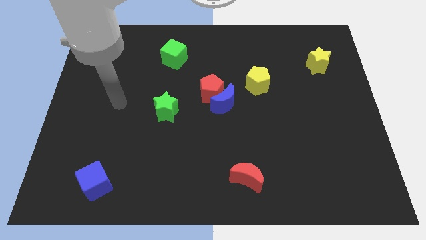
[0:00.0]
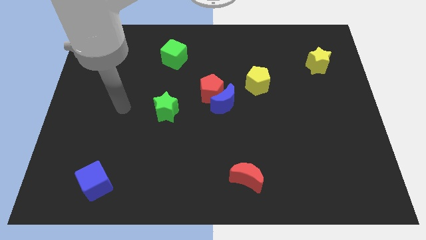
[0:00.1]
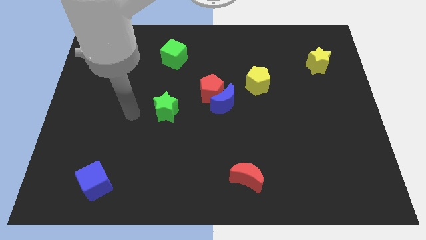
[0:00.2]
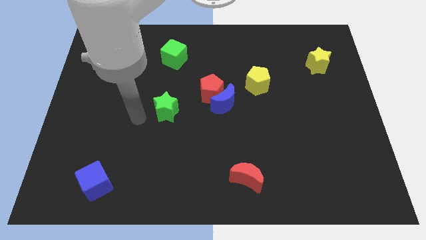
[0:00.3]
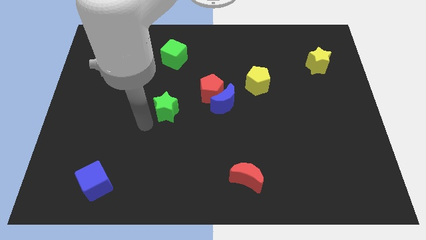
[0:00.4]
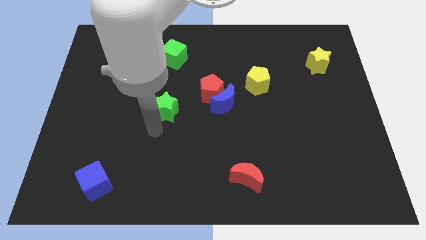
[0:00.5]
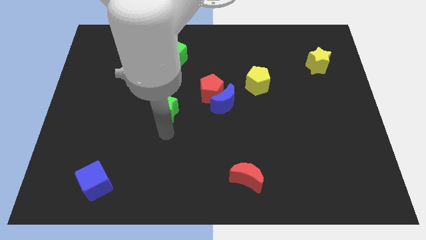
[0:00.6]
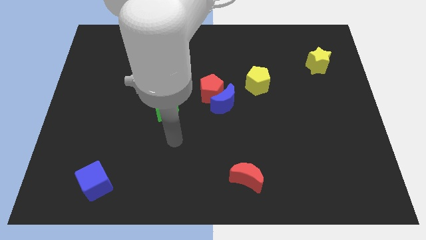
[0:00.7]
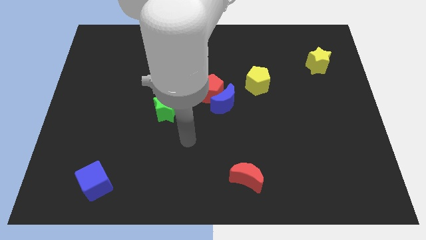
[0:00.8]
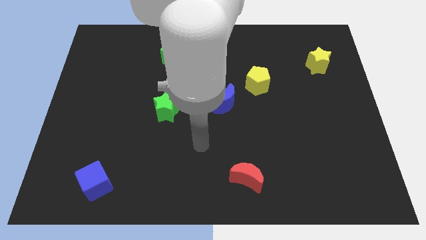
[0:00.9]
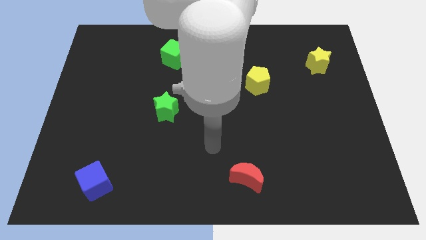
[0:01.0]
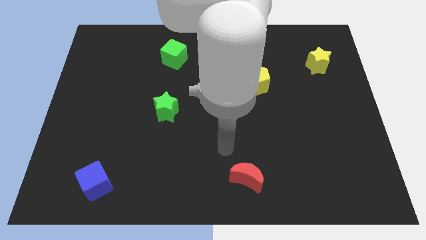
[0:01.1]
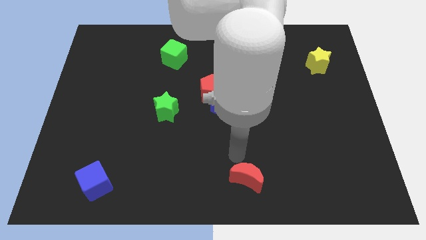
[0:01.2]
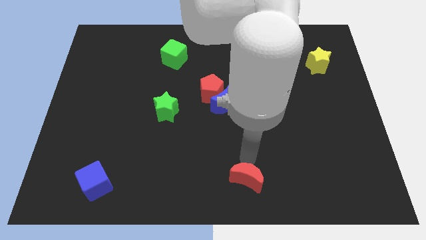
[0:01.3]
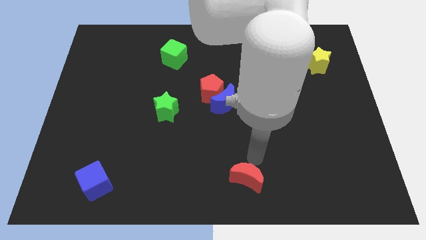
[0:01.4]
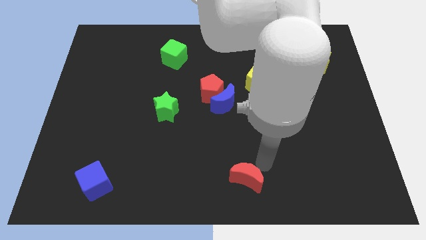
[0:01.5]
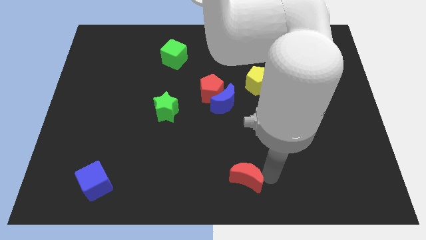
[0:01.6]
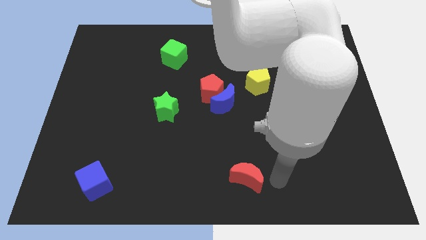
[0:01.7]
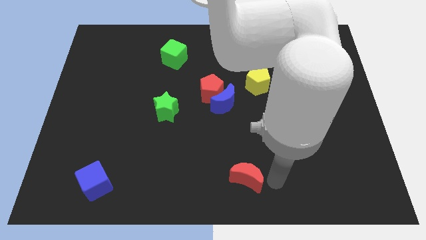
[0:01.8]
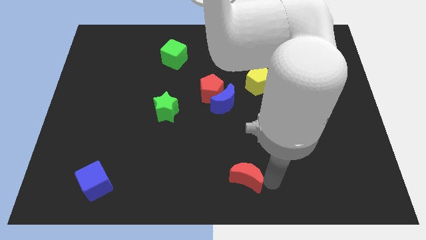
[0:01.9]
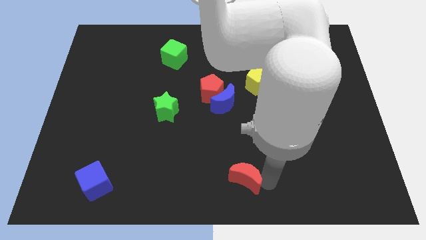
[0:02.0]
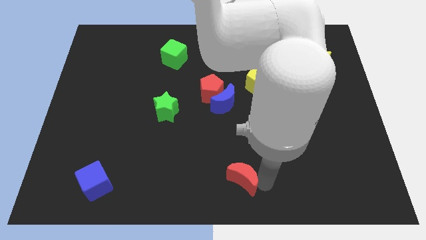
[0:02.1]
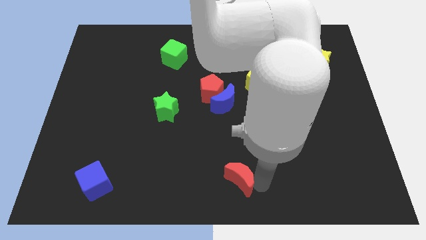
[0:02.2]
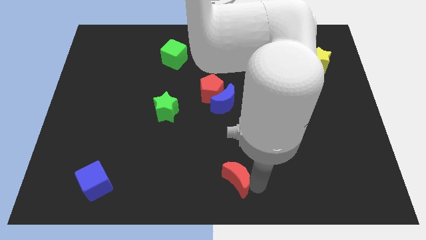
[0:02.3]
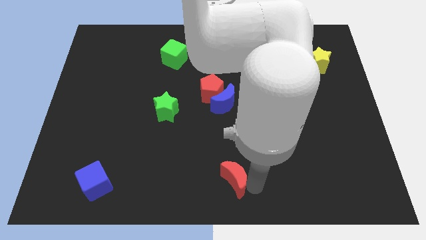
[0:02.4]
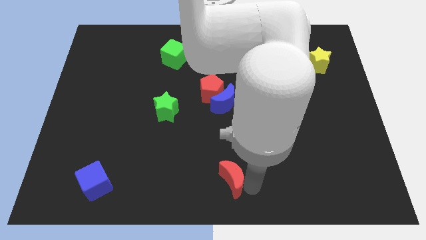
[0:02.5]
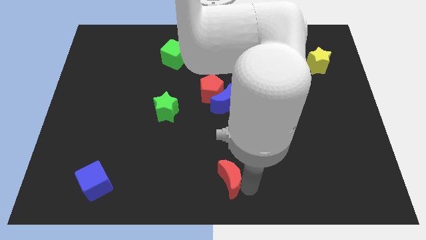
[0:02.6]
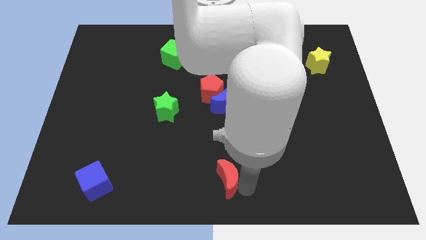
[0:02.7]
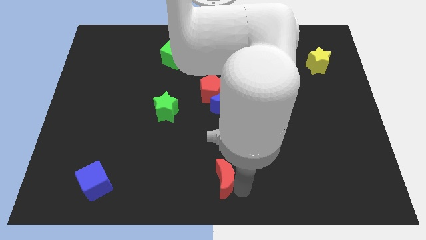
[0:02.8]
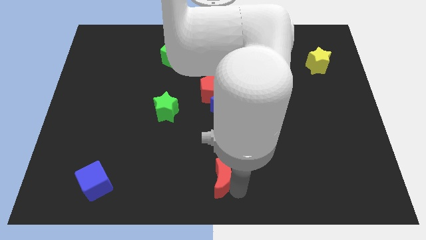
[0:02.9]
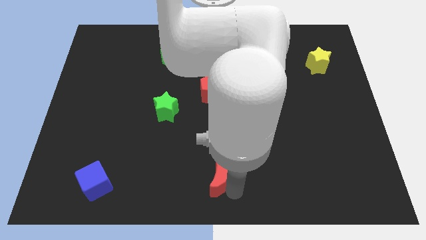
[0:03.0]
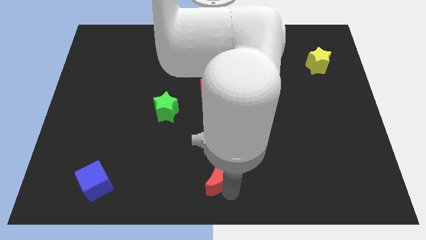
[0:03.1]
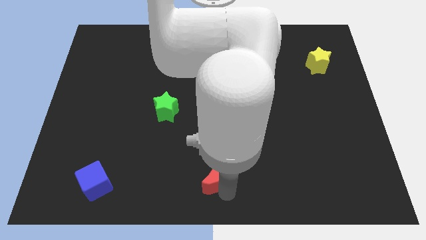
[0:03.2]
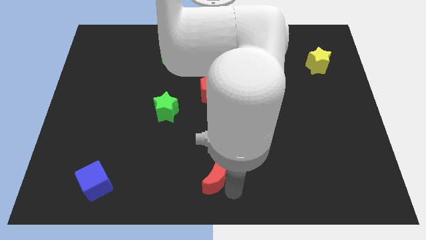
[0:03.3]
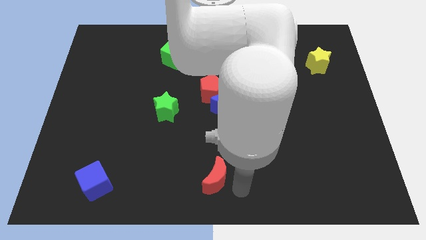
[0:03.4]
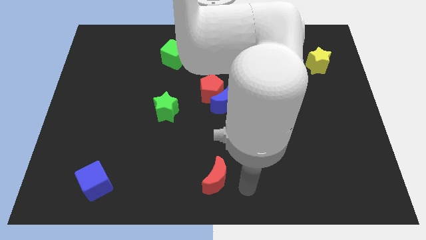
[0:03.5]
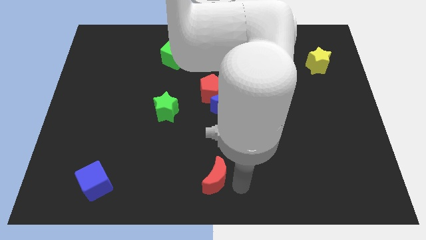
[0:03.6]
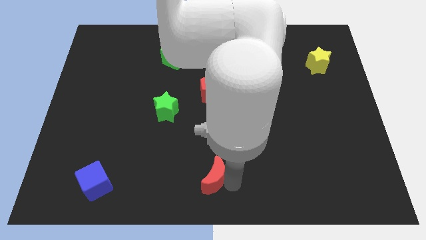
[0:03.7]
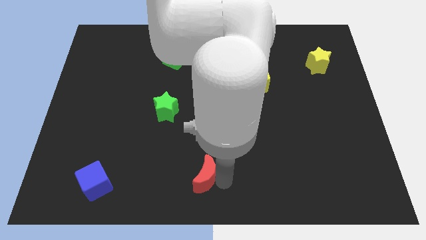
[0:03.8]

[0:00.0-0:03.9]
push the red moon left slightly

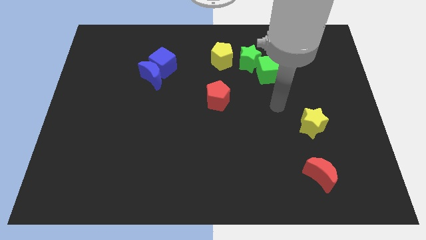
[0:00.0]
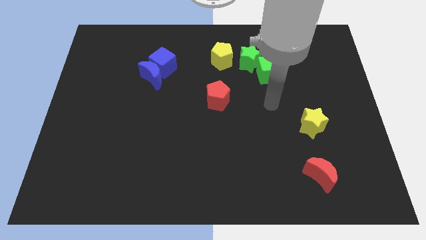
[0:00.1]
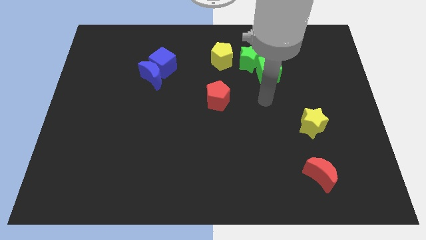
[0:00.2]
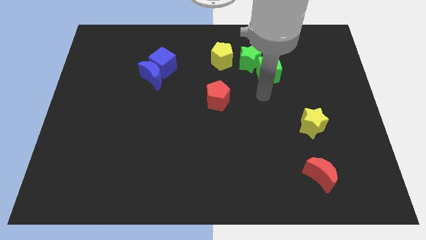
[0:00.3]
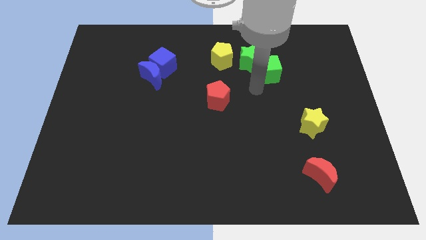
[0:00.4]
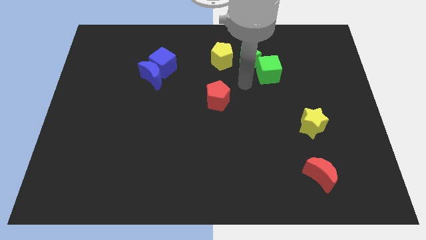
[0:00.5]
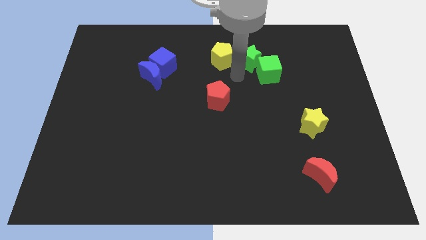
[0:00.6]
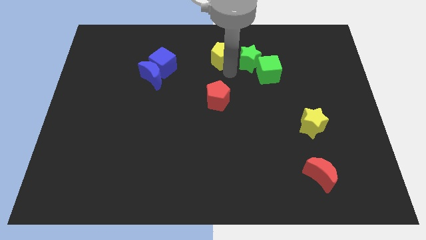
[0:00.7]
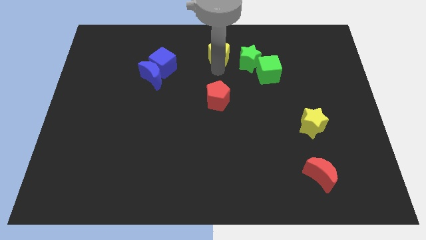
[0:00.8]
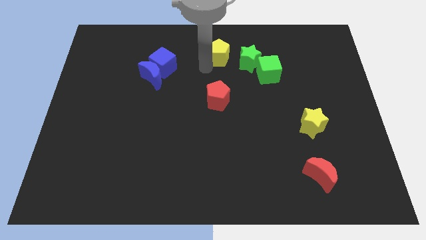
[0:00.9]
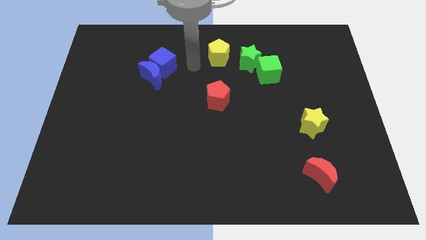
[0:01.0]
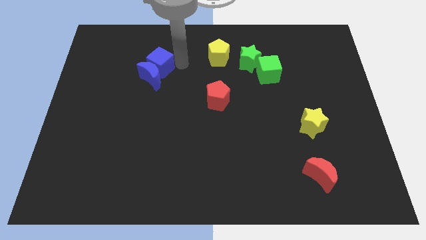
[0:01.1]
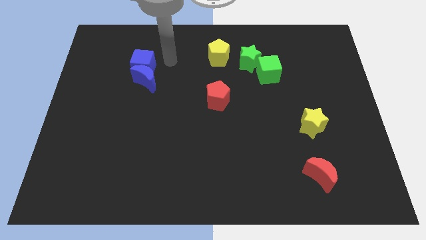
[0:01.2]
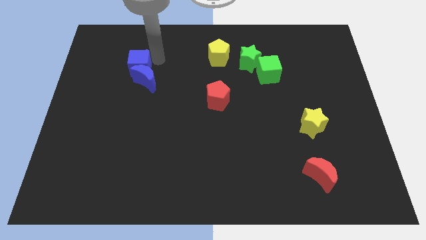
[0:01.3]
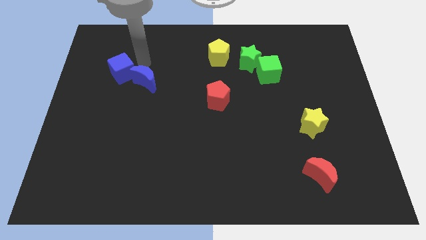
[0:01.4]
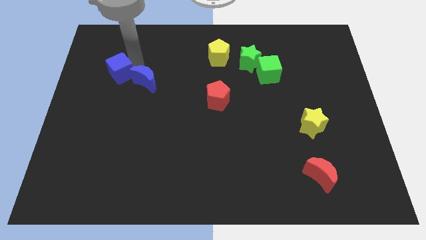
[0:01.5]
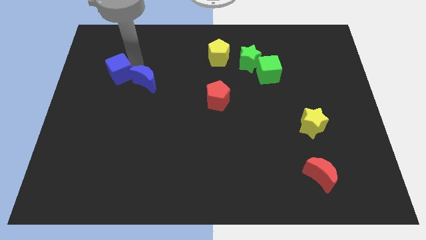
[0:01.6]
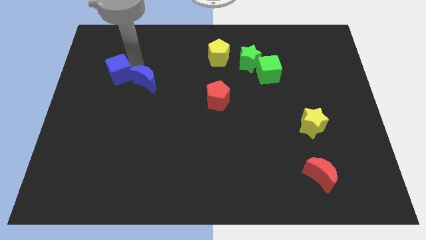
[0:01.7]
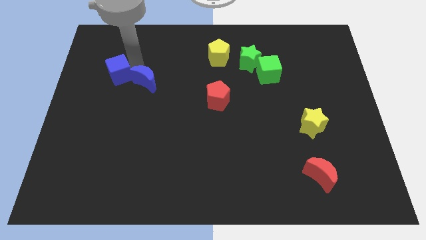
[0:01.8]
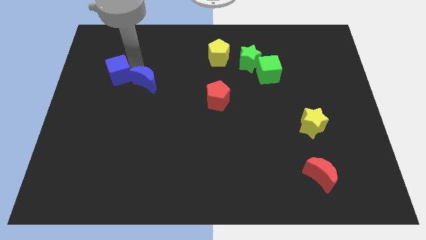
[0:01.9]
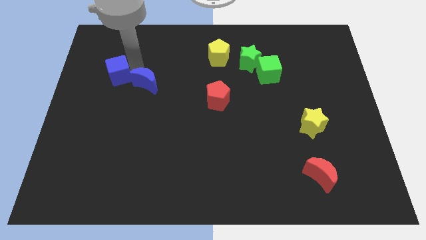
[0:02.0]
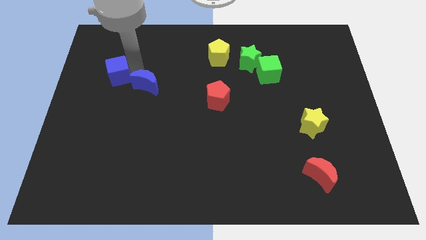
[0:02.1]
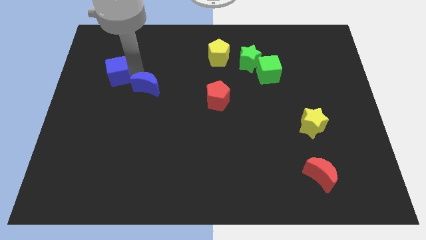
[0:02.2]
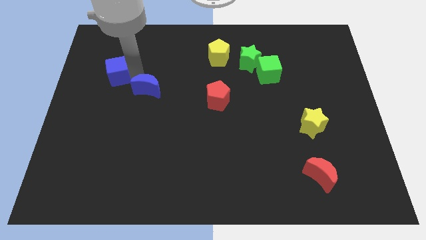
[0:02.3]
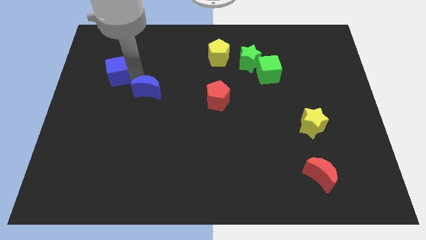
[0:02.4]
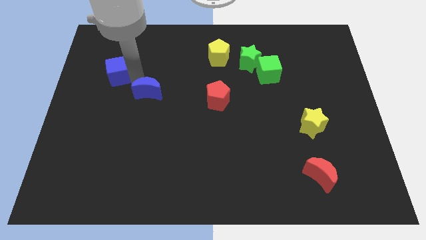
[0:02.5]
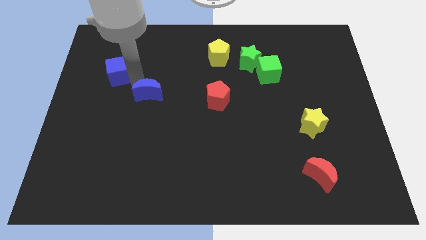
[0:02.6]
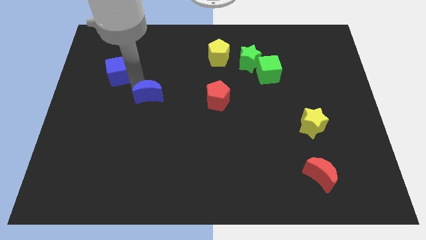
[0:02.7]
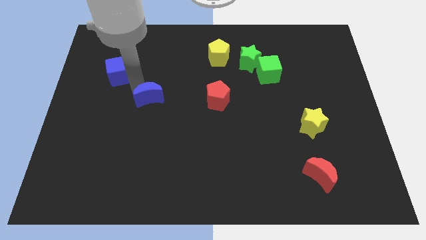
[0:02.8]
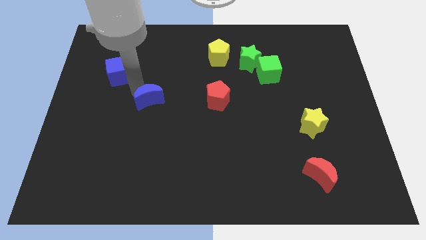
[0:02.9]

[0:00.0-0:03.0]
slightly push the blue moon downwards

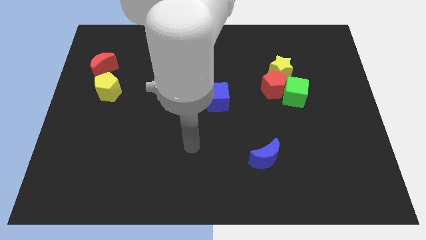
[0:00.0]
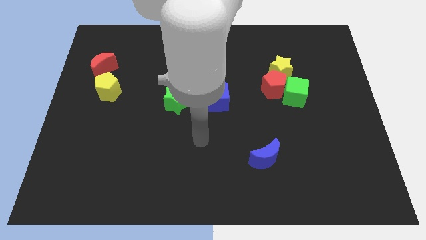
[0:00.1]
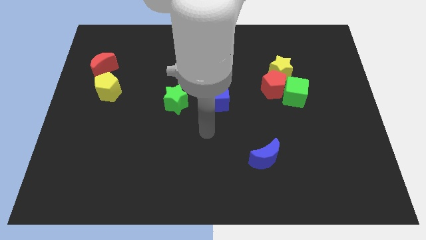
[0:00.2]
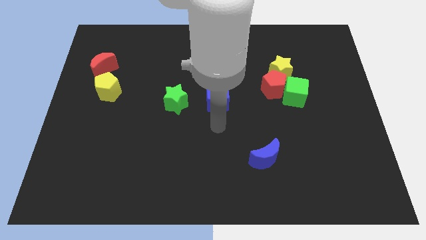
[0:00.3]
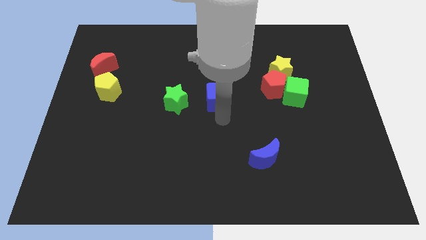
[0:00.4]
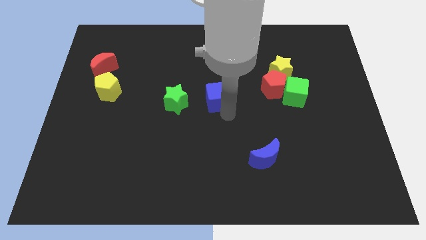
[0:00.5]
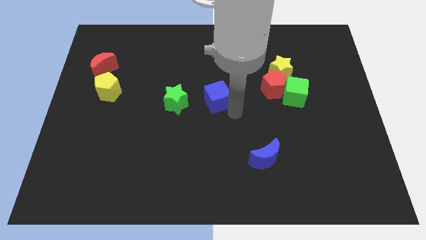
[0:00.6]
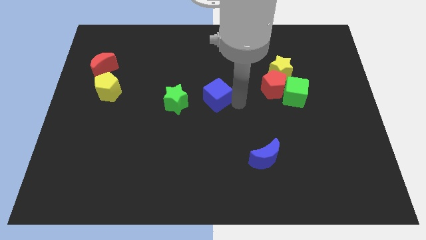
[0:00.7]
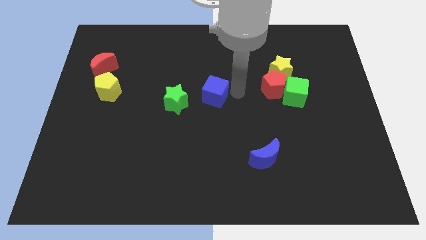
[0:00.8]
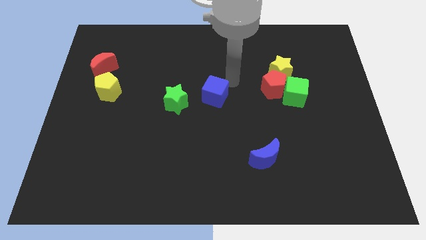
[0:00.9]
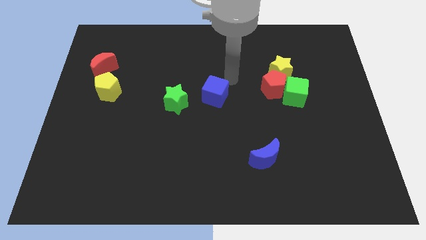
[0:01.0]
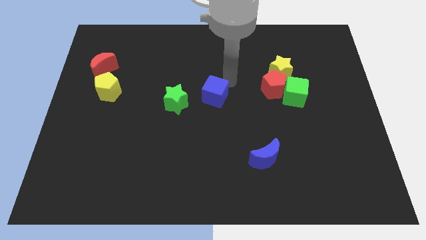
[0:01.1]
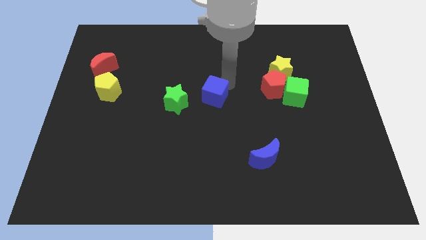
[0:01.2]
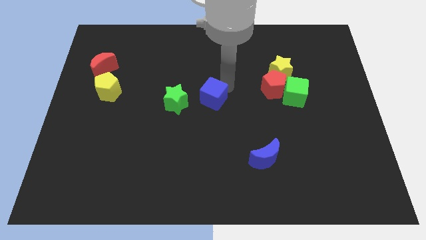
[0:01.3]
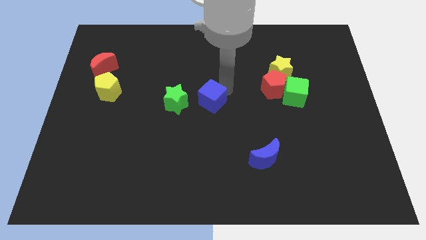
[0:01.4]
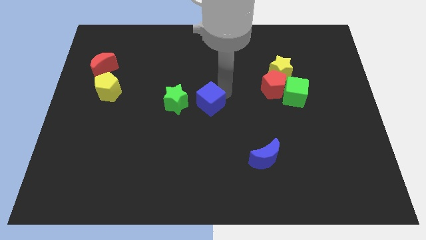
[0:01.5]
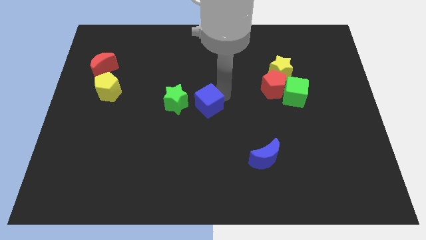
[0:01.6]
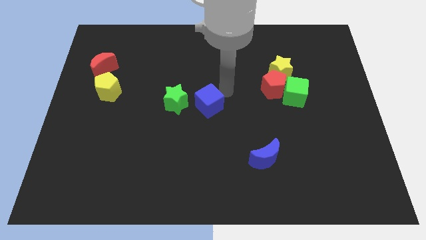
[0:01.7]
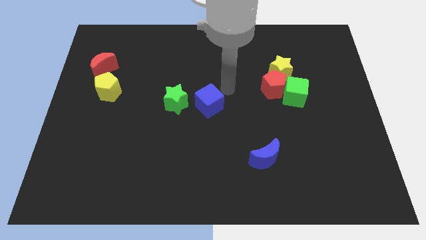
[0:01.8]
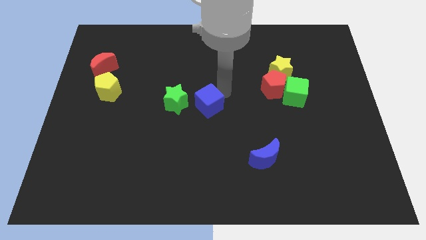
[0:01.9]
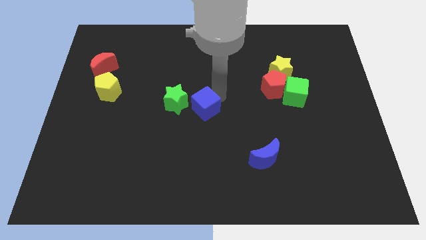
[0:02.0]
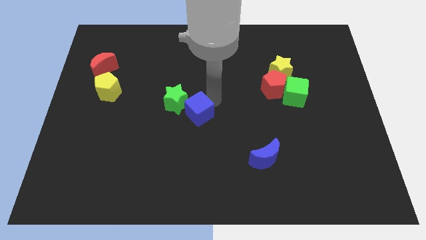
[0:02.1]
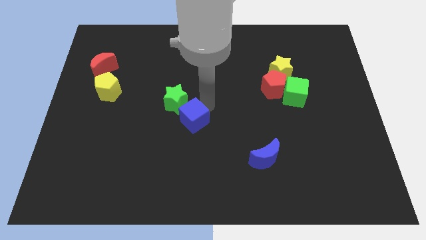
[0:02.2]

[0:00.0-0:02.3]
slightly slide the blue cube down and then left
